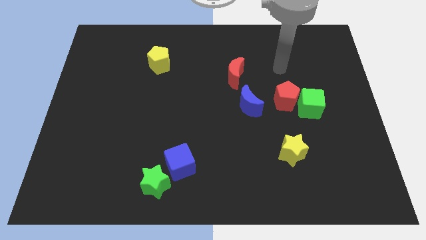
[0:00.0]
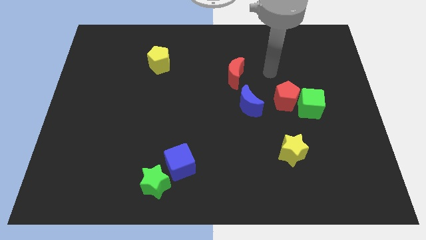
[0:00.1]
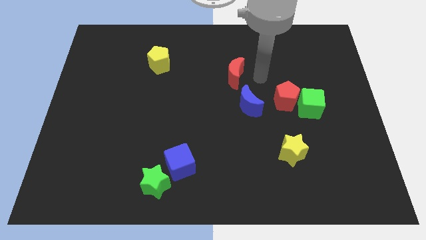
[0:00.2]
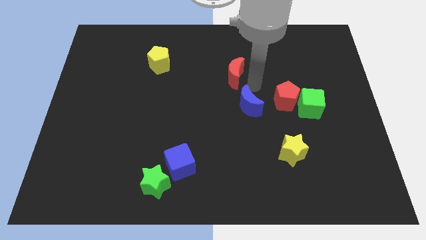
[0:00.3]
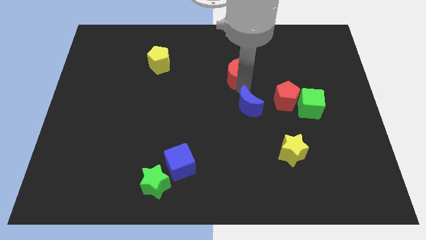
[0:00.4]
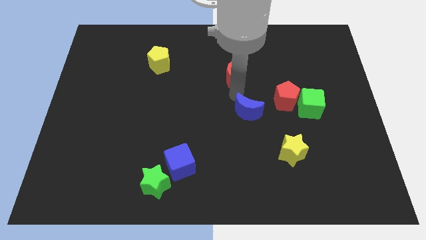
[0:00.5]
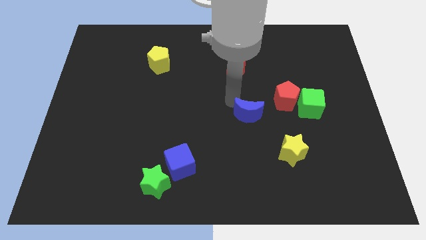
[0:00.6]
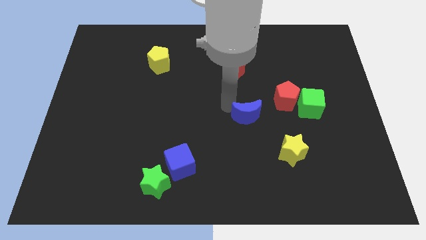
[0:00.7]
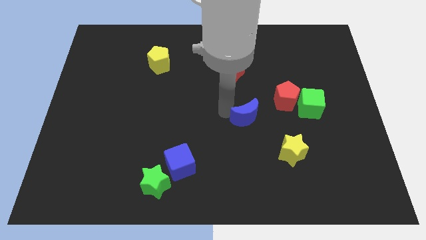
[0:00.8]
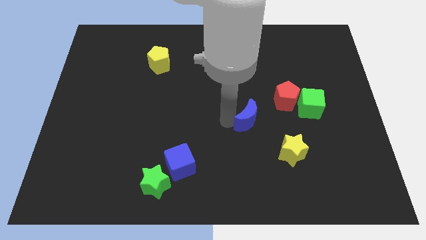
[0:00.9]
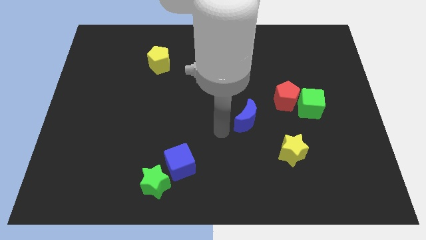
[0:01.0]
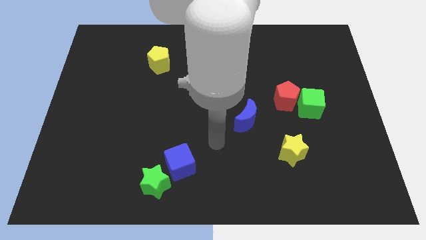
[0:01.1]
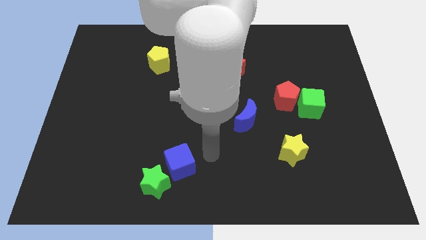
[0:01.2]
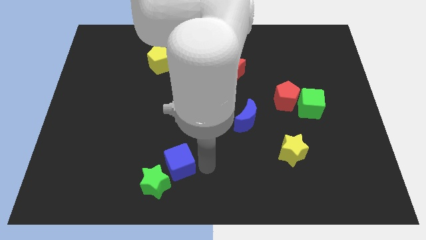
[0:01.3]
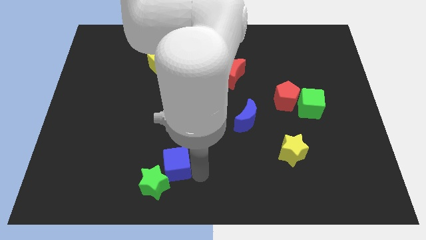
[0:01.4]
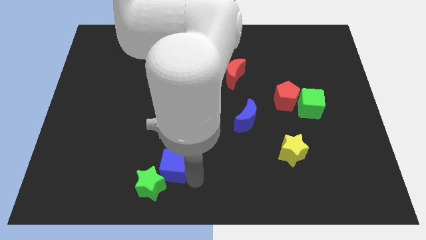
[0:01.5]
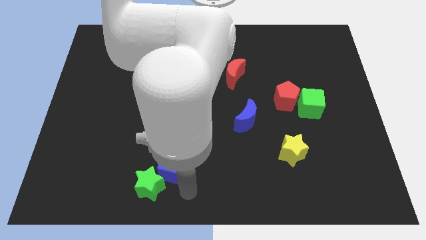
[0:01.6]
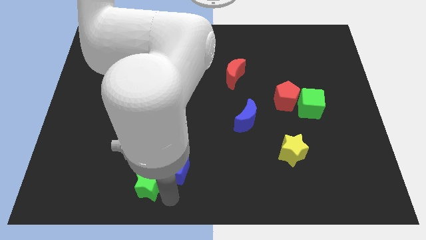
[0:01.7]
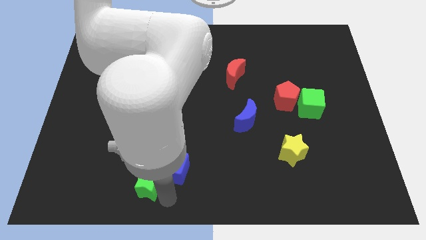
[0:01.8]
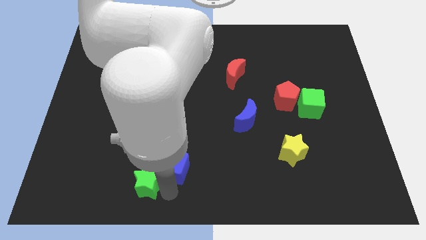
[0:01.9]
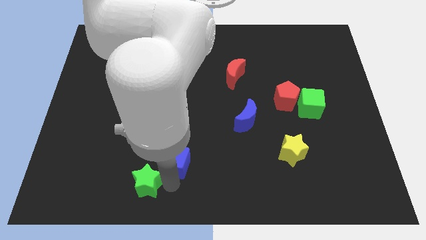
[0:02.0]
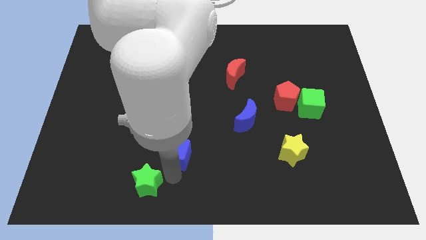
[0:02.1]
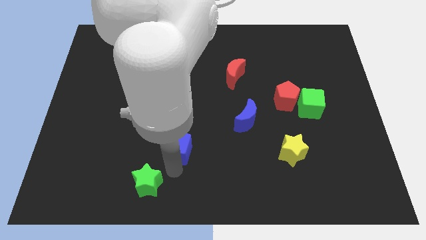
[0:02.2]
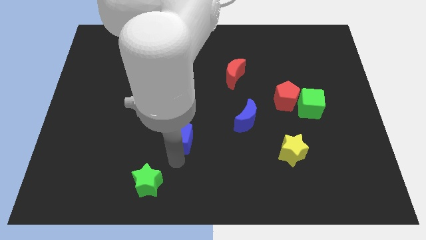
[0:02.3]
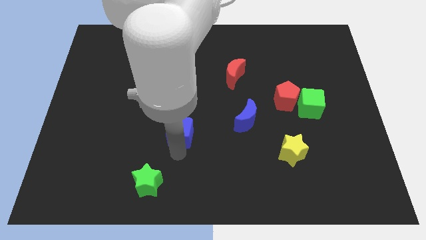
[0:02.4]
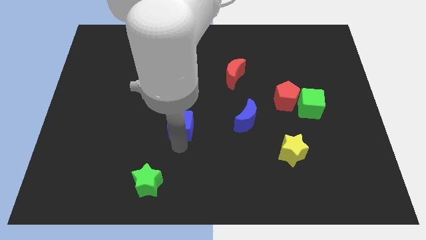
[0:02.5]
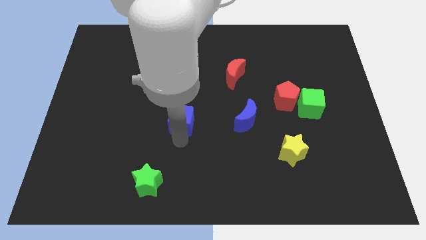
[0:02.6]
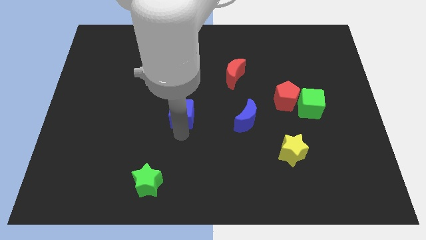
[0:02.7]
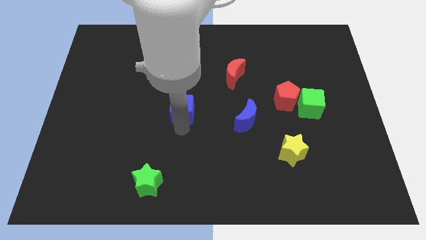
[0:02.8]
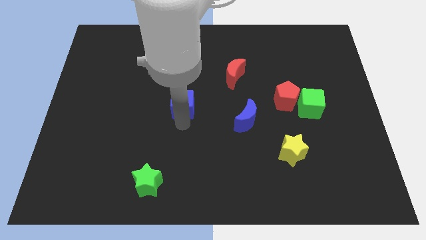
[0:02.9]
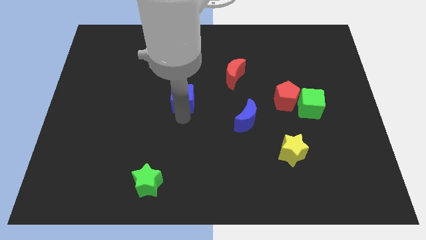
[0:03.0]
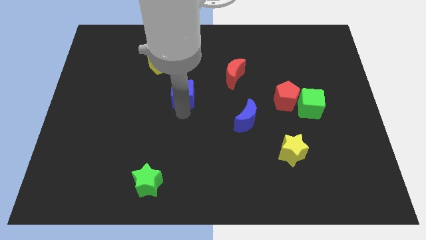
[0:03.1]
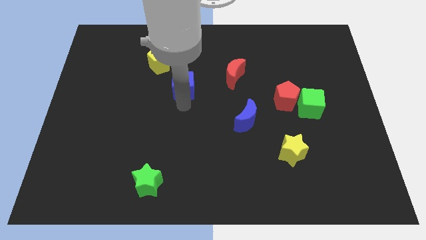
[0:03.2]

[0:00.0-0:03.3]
slide the blue cube upwards

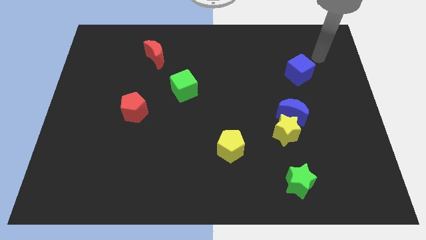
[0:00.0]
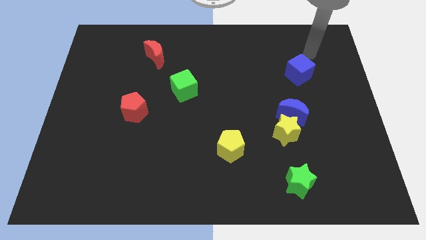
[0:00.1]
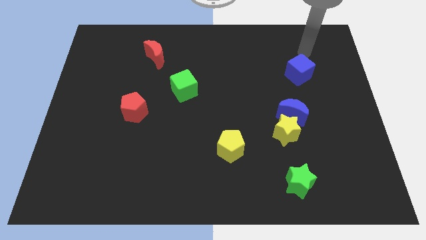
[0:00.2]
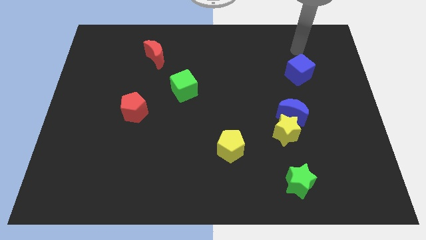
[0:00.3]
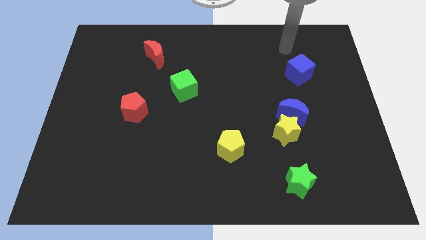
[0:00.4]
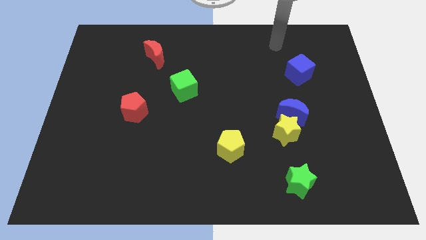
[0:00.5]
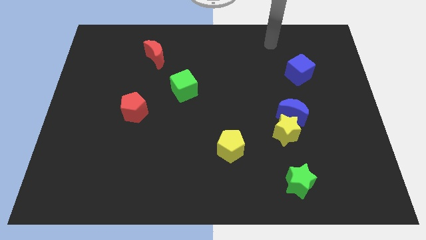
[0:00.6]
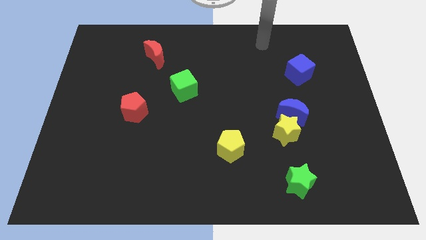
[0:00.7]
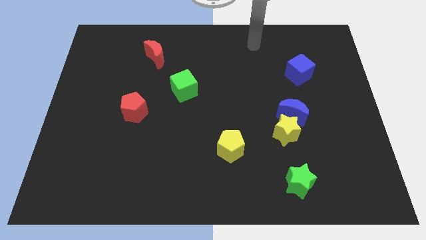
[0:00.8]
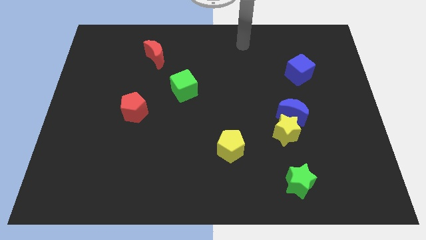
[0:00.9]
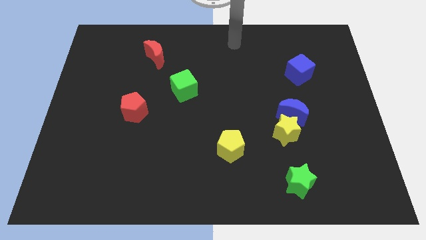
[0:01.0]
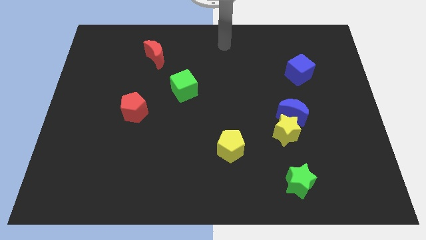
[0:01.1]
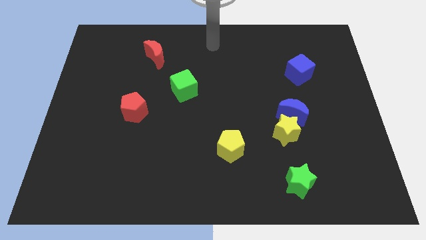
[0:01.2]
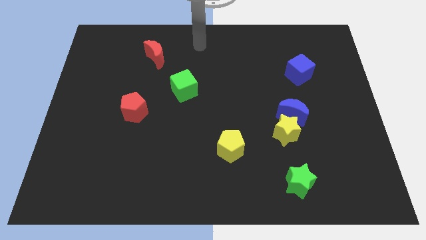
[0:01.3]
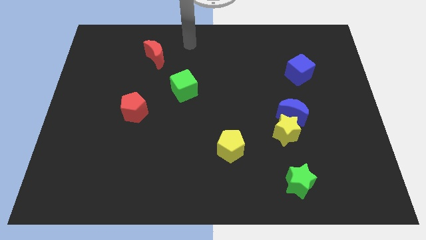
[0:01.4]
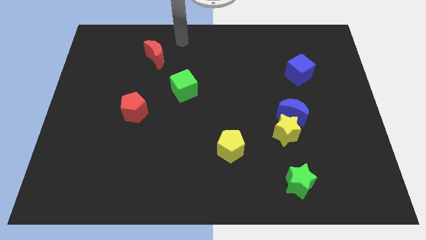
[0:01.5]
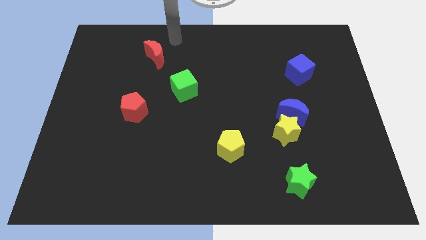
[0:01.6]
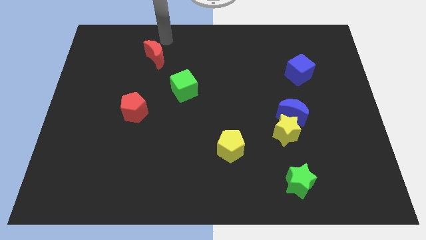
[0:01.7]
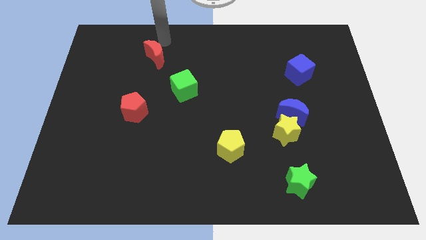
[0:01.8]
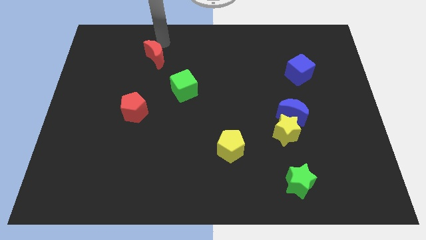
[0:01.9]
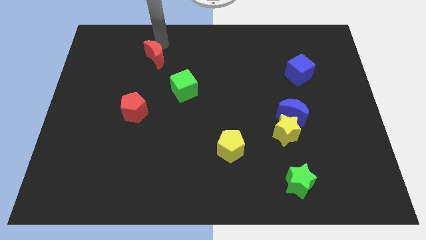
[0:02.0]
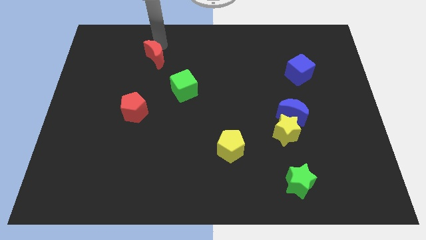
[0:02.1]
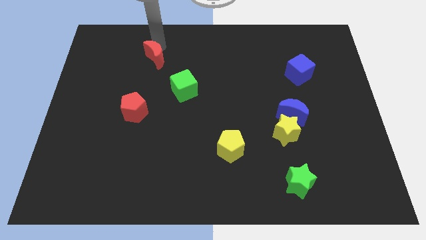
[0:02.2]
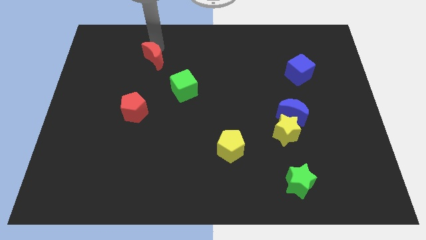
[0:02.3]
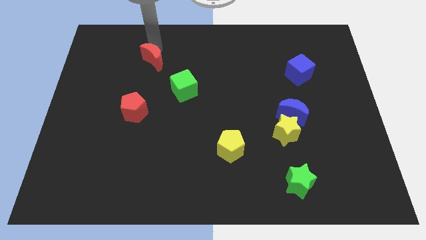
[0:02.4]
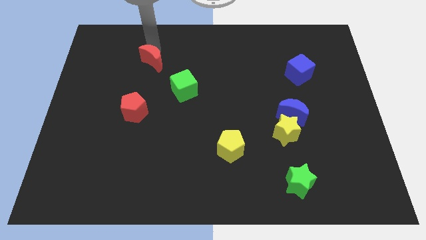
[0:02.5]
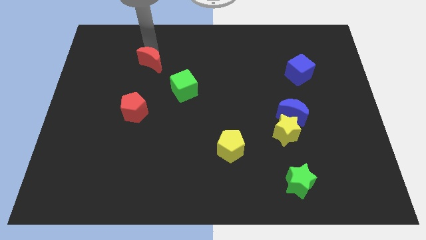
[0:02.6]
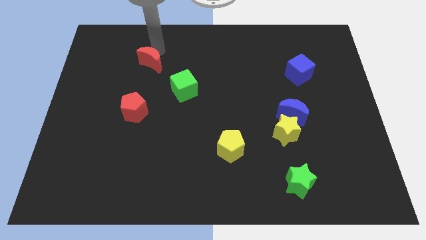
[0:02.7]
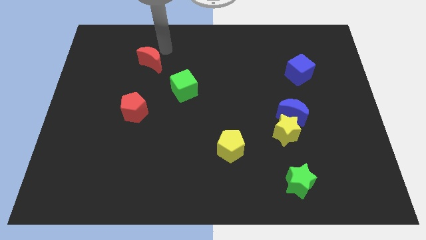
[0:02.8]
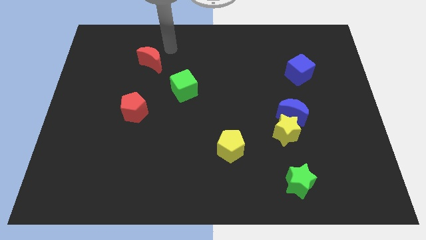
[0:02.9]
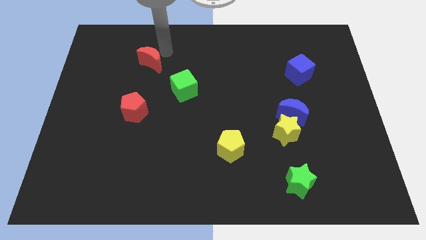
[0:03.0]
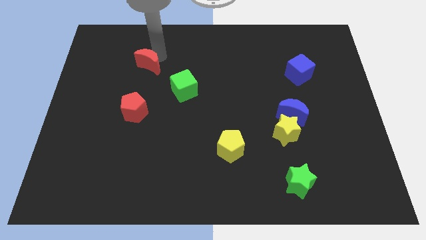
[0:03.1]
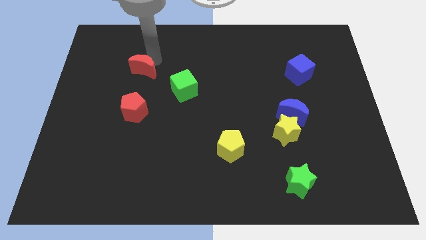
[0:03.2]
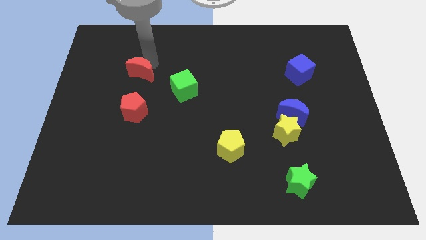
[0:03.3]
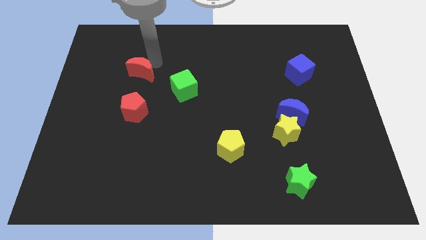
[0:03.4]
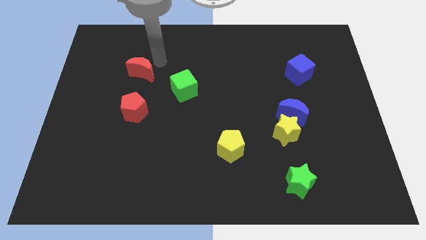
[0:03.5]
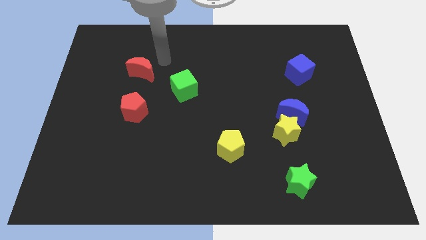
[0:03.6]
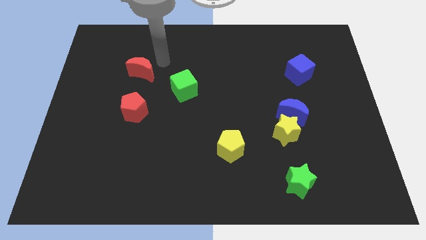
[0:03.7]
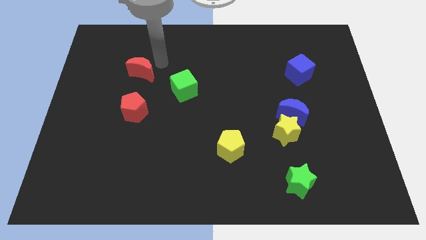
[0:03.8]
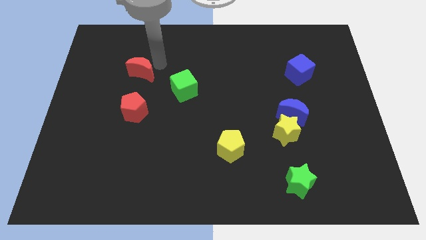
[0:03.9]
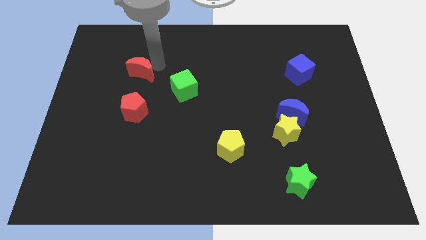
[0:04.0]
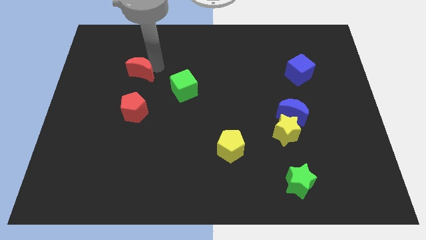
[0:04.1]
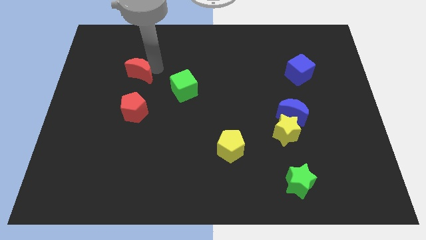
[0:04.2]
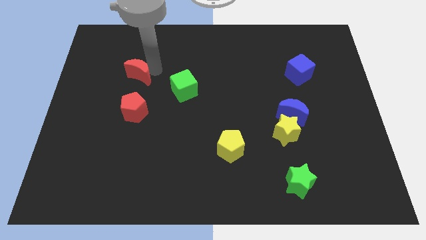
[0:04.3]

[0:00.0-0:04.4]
slightly slide the red moon diagonally downwards and to the left
